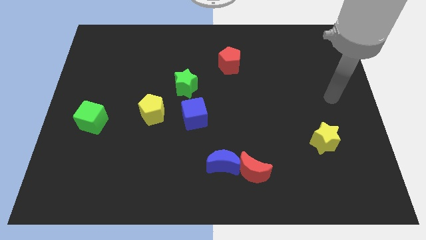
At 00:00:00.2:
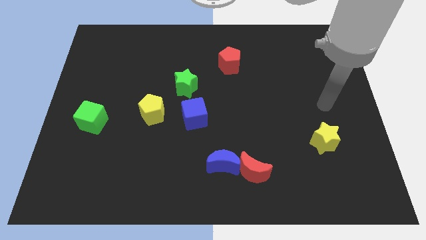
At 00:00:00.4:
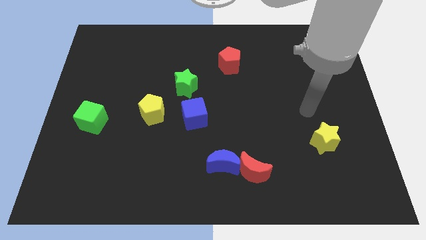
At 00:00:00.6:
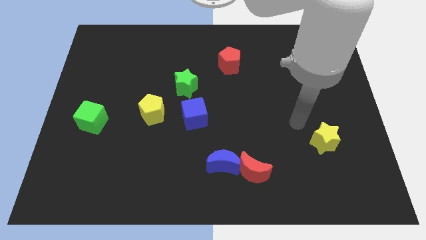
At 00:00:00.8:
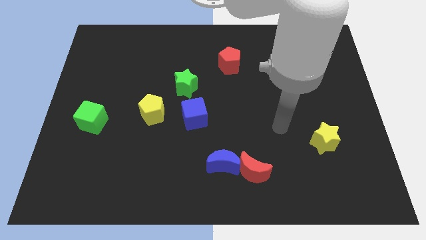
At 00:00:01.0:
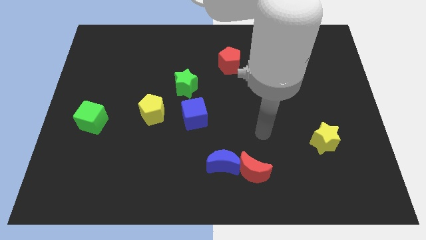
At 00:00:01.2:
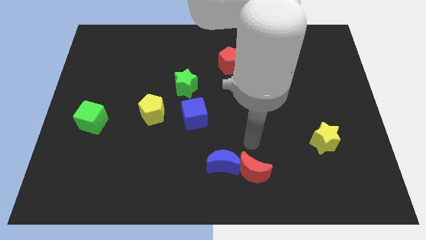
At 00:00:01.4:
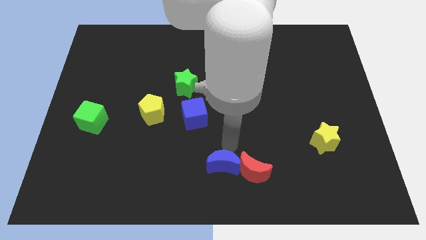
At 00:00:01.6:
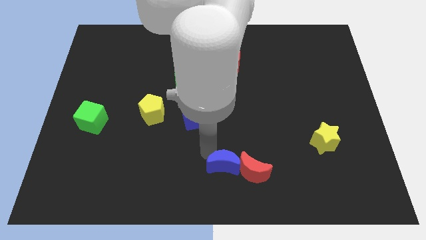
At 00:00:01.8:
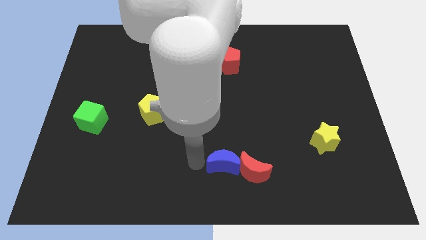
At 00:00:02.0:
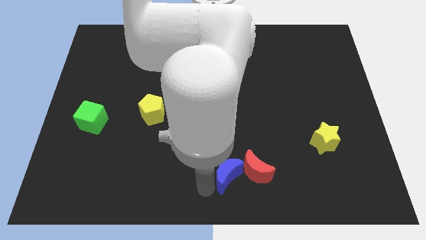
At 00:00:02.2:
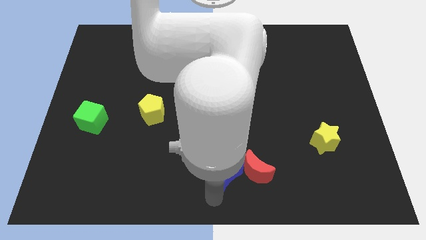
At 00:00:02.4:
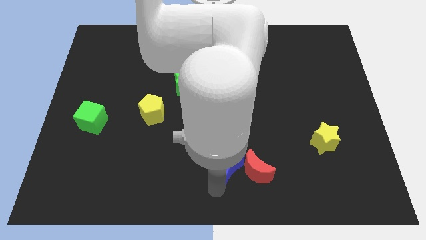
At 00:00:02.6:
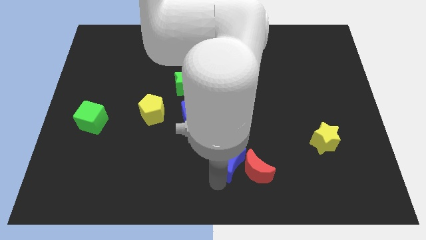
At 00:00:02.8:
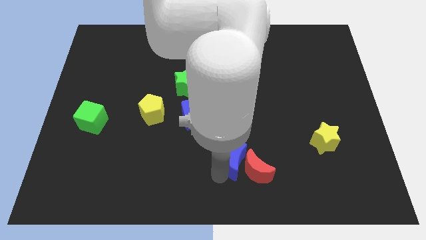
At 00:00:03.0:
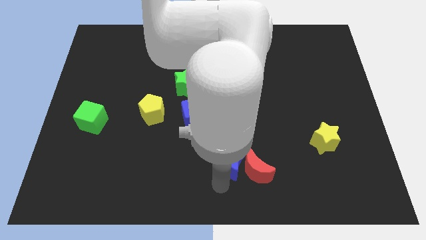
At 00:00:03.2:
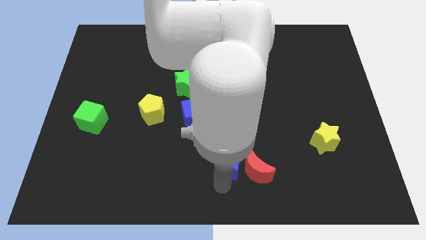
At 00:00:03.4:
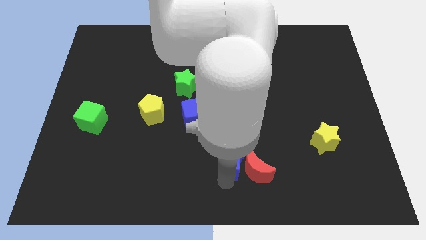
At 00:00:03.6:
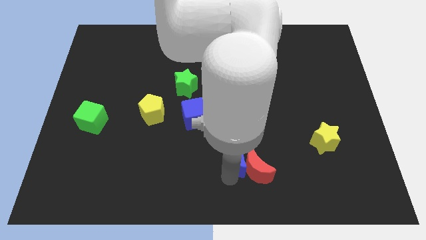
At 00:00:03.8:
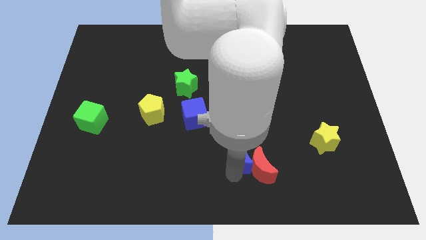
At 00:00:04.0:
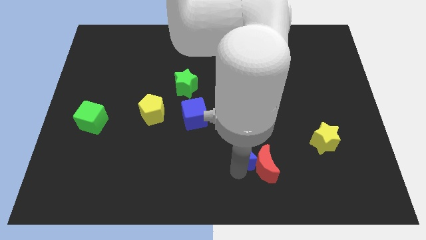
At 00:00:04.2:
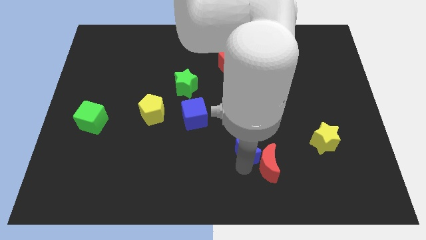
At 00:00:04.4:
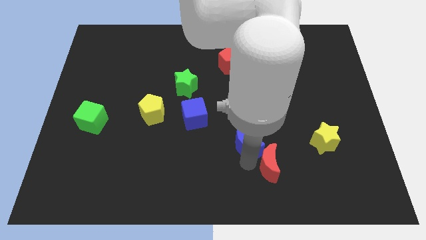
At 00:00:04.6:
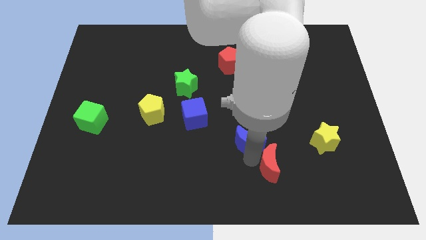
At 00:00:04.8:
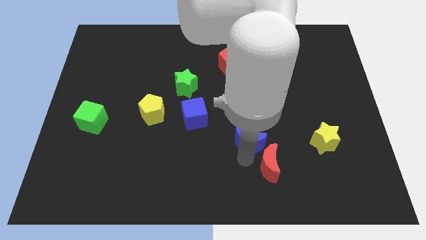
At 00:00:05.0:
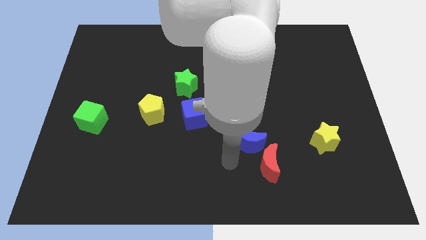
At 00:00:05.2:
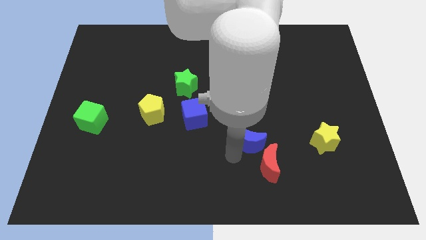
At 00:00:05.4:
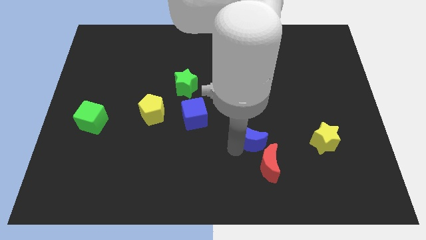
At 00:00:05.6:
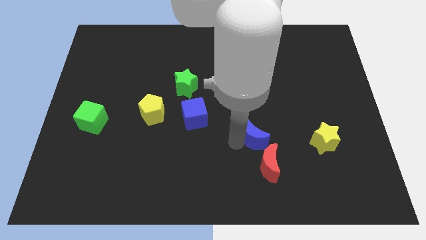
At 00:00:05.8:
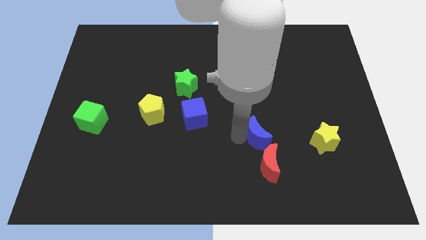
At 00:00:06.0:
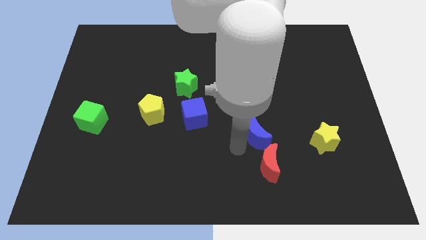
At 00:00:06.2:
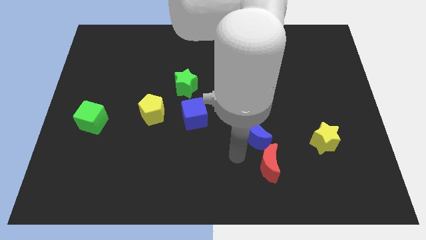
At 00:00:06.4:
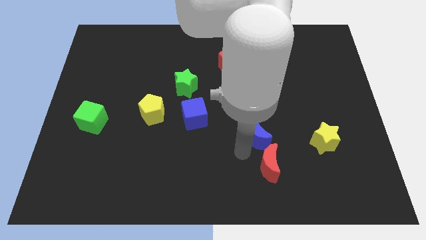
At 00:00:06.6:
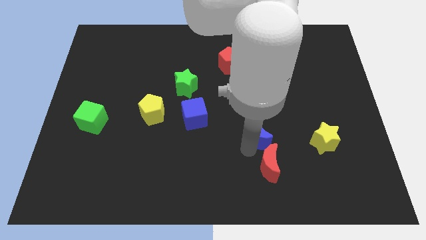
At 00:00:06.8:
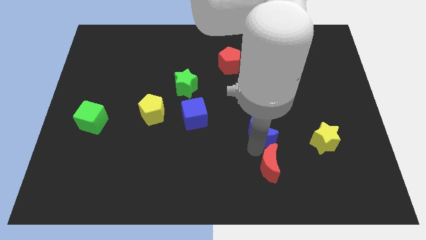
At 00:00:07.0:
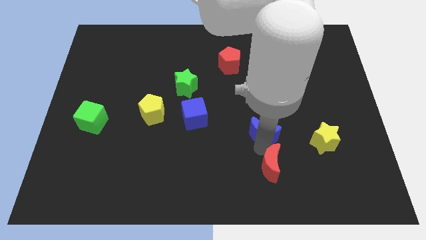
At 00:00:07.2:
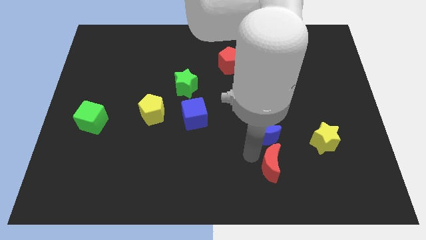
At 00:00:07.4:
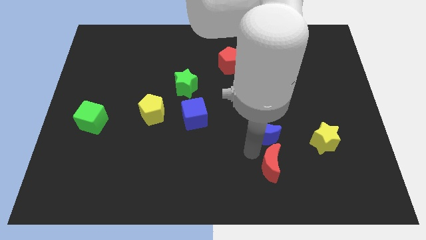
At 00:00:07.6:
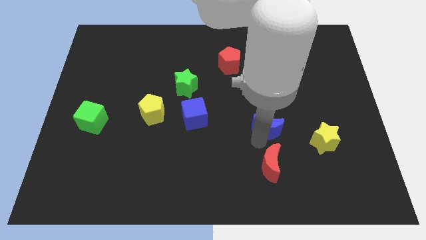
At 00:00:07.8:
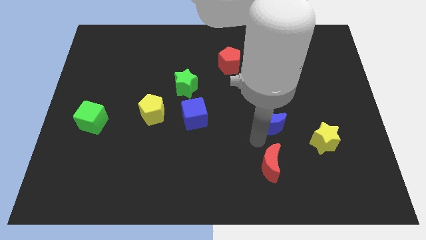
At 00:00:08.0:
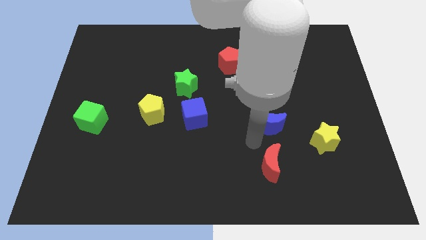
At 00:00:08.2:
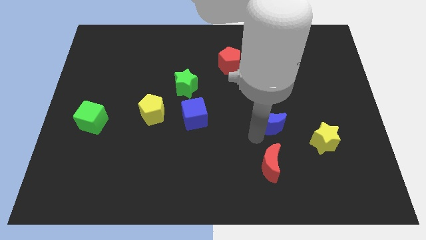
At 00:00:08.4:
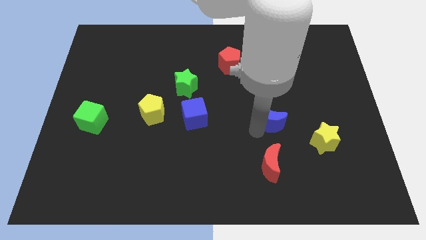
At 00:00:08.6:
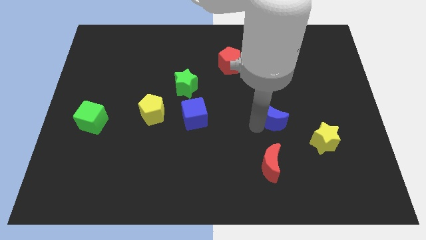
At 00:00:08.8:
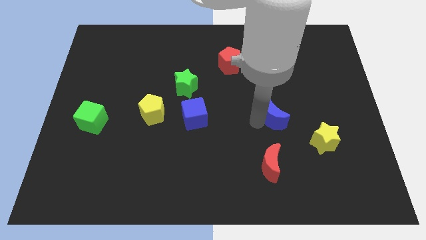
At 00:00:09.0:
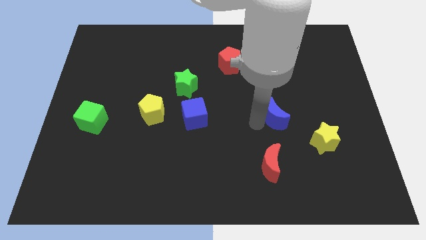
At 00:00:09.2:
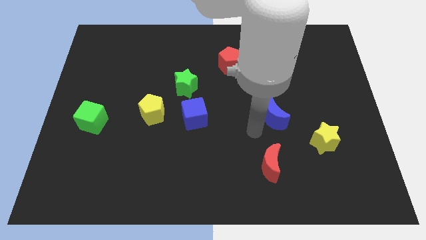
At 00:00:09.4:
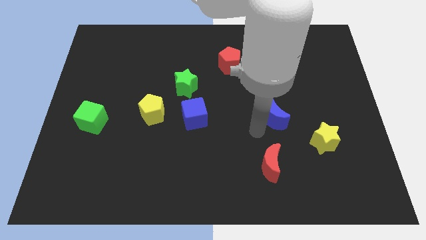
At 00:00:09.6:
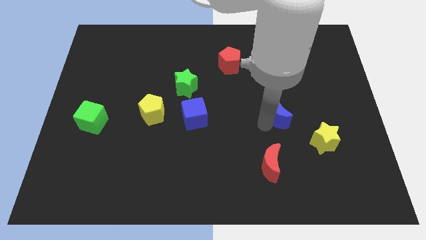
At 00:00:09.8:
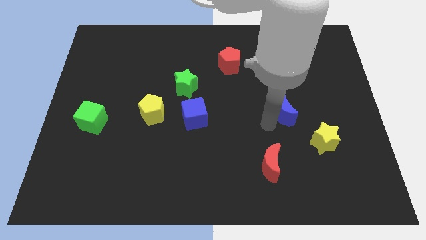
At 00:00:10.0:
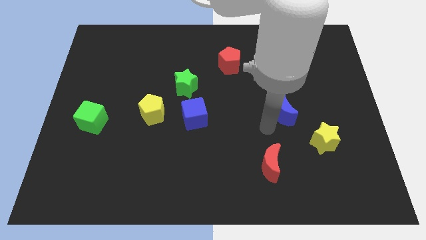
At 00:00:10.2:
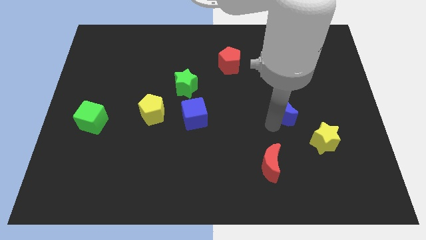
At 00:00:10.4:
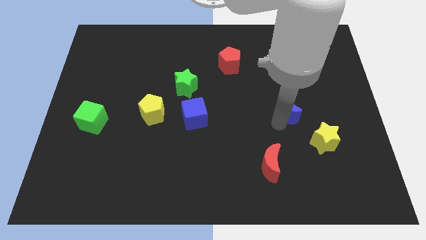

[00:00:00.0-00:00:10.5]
move the blue moon up and to the right

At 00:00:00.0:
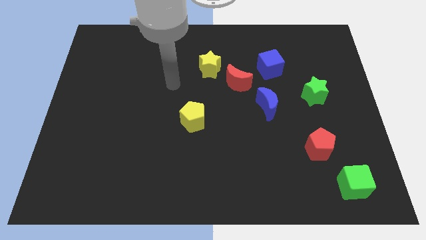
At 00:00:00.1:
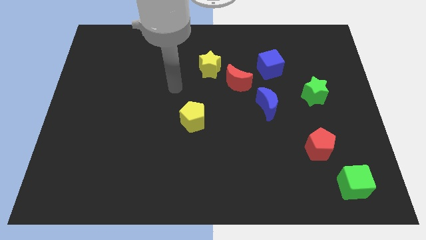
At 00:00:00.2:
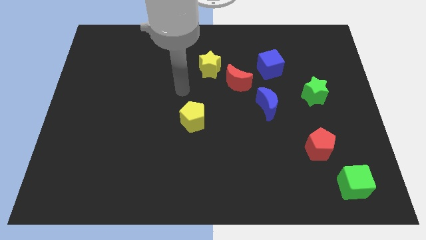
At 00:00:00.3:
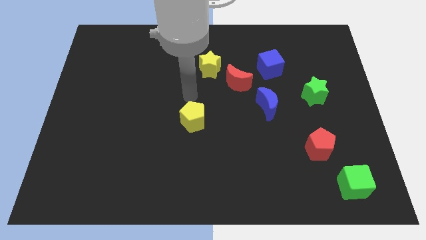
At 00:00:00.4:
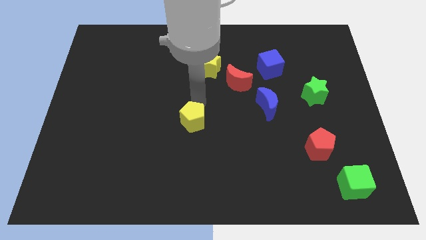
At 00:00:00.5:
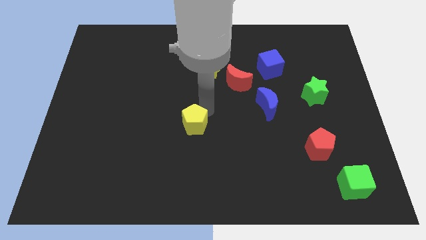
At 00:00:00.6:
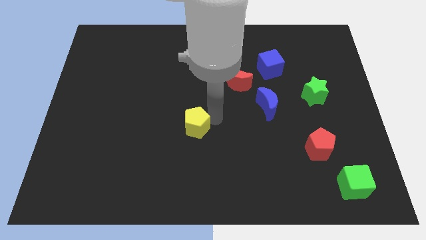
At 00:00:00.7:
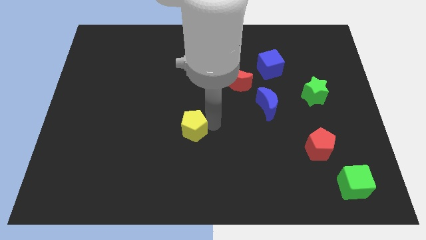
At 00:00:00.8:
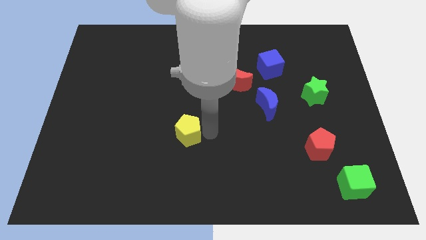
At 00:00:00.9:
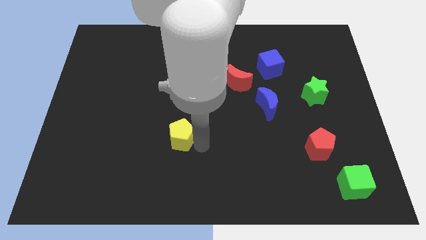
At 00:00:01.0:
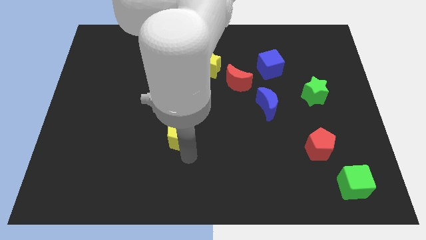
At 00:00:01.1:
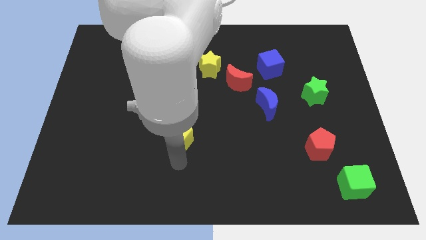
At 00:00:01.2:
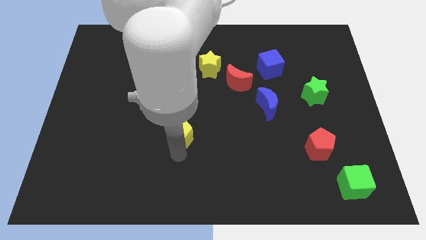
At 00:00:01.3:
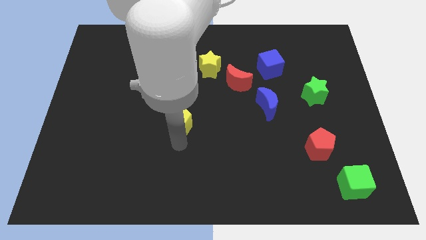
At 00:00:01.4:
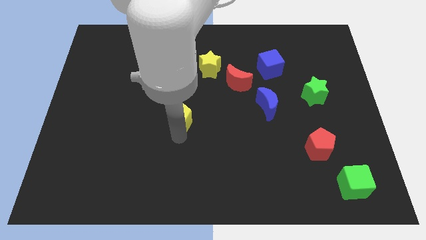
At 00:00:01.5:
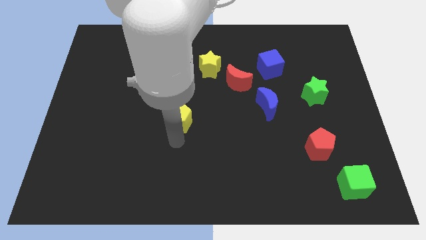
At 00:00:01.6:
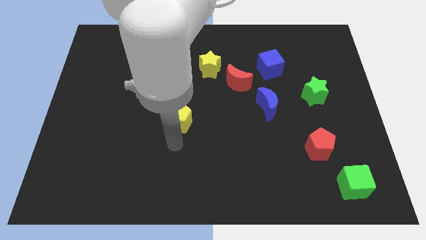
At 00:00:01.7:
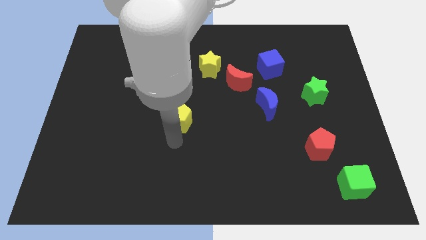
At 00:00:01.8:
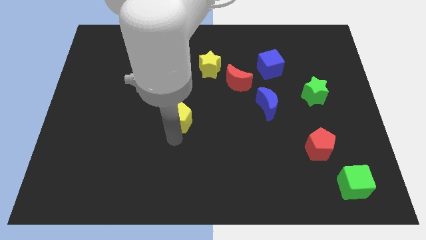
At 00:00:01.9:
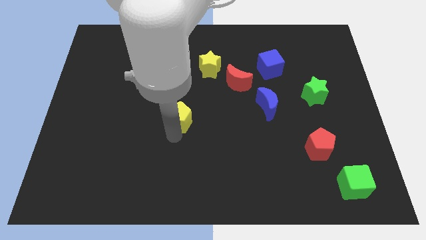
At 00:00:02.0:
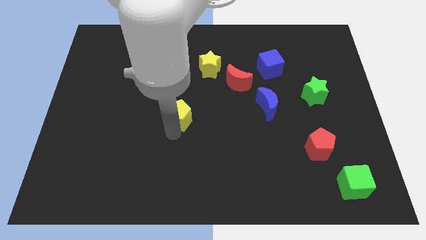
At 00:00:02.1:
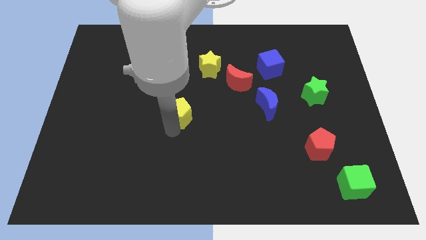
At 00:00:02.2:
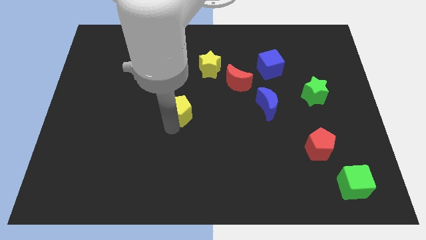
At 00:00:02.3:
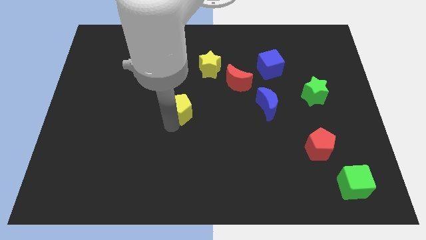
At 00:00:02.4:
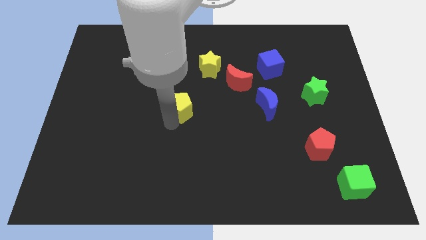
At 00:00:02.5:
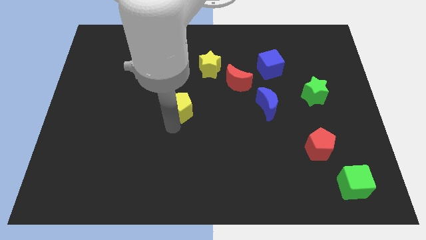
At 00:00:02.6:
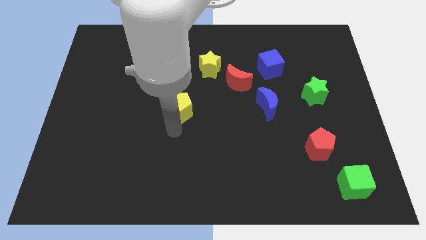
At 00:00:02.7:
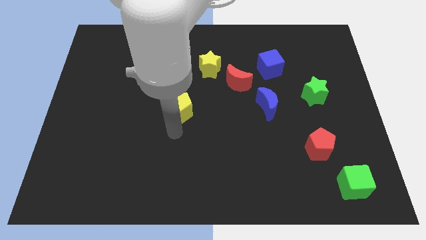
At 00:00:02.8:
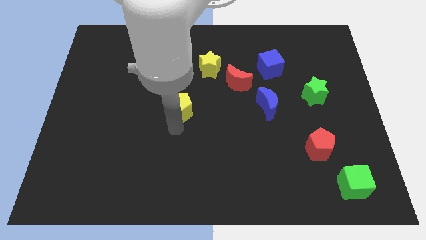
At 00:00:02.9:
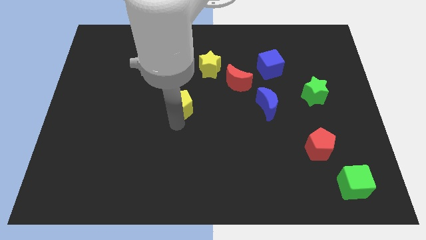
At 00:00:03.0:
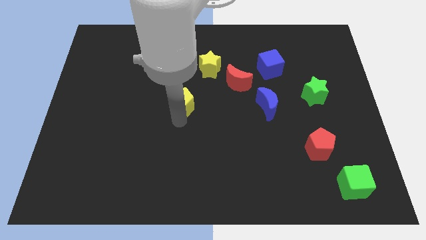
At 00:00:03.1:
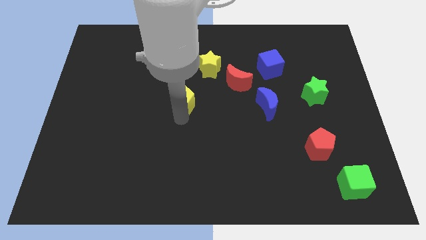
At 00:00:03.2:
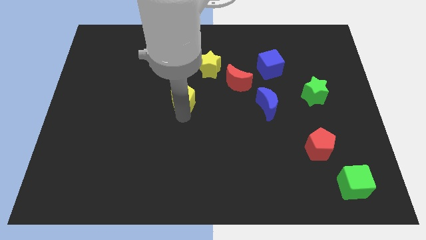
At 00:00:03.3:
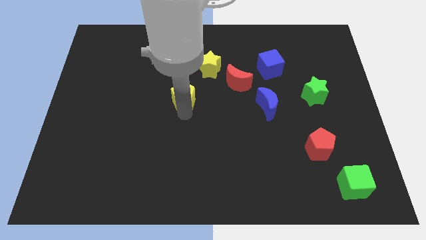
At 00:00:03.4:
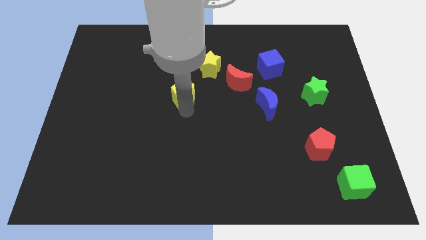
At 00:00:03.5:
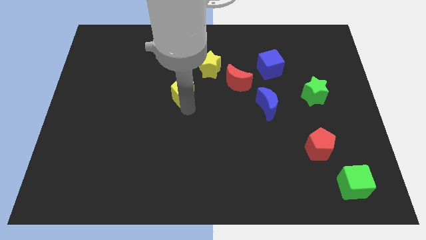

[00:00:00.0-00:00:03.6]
slide the yellow pentagon somewhat upwards and then to the left
